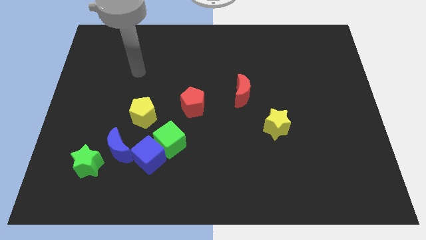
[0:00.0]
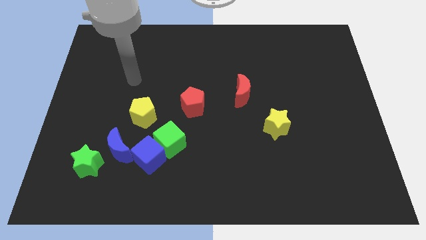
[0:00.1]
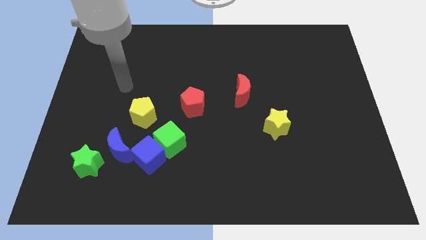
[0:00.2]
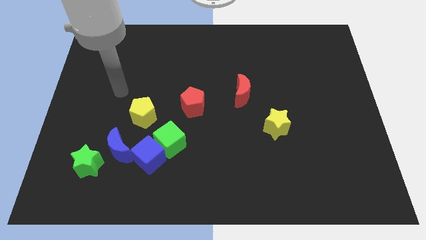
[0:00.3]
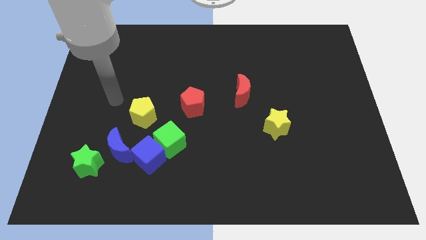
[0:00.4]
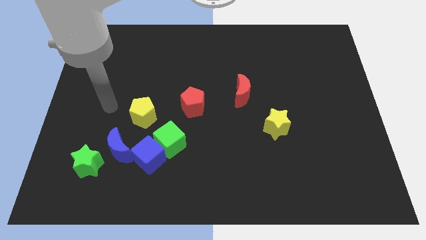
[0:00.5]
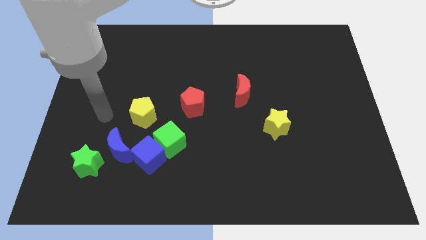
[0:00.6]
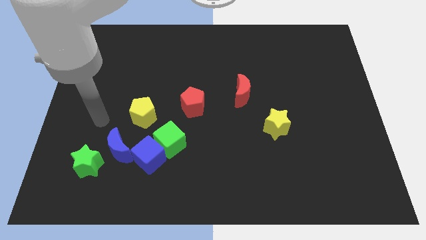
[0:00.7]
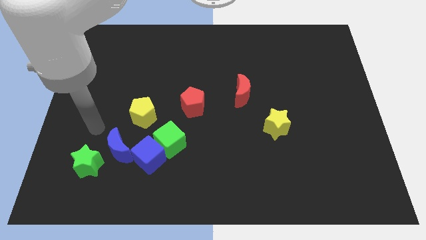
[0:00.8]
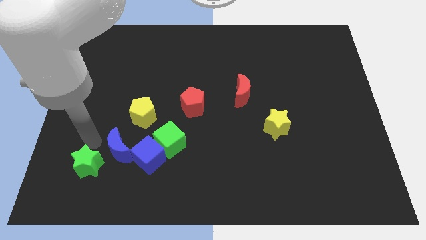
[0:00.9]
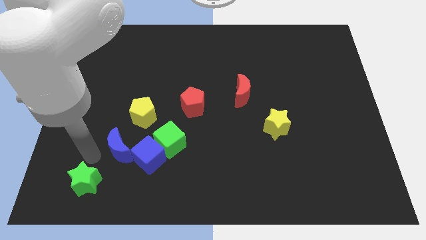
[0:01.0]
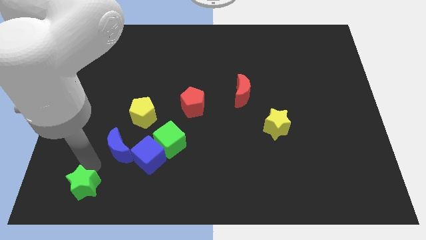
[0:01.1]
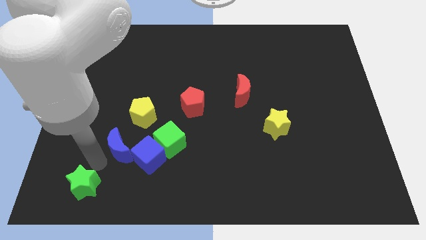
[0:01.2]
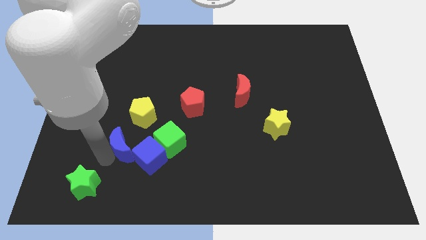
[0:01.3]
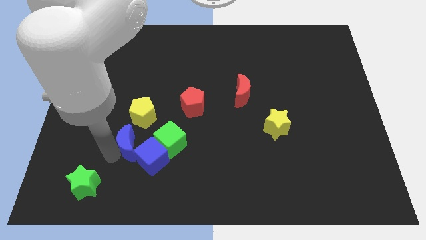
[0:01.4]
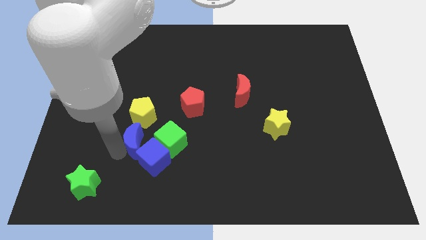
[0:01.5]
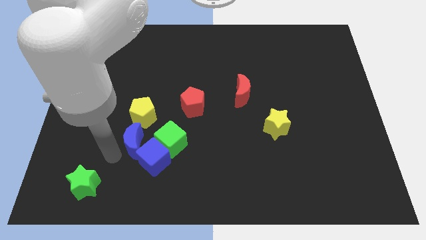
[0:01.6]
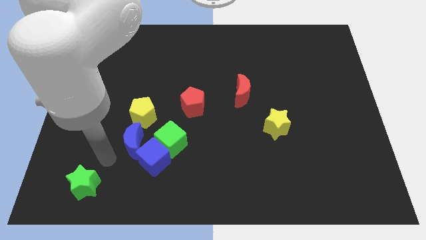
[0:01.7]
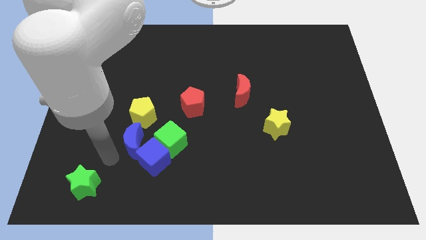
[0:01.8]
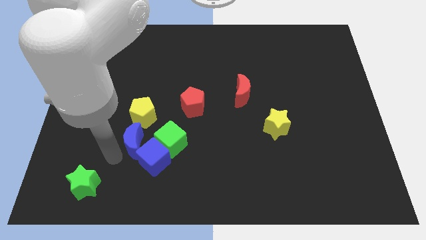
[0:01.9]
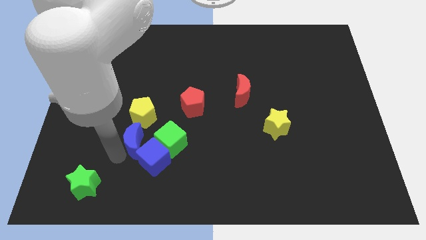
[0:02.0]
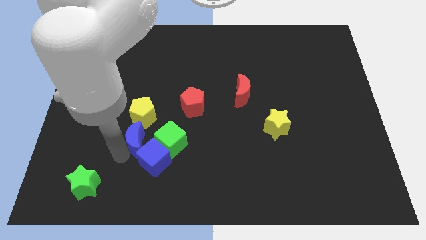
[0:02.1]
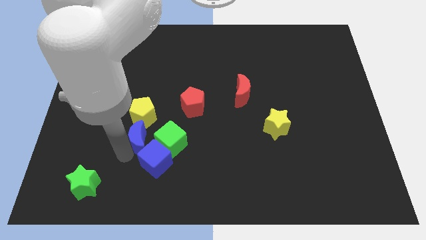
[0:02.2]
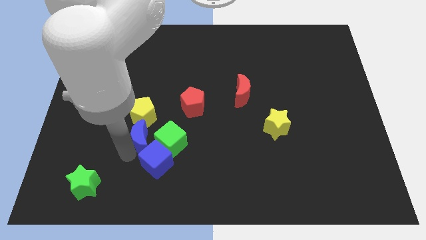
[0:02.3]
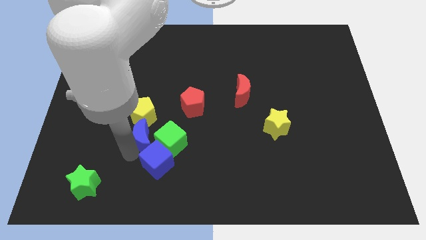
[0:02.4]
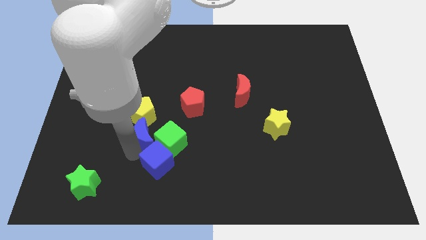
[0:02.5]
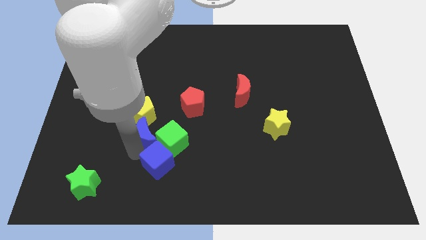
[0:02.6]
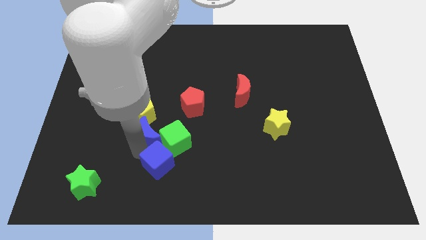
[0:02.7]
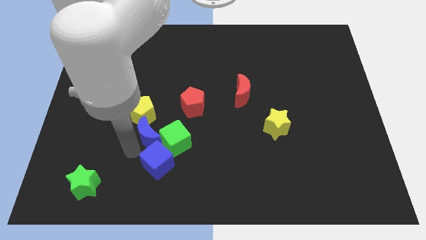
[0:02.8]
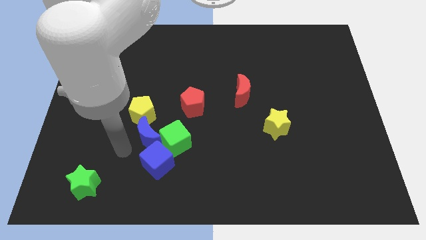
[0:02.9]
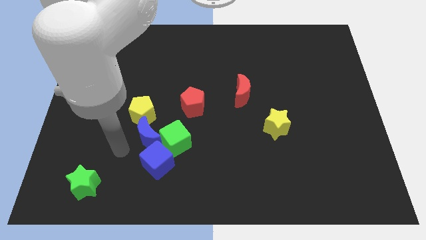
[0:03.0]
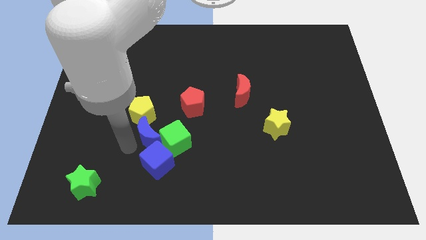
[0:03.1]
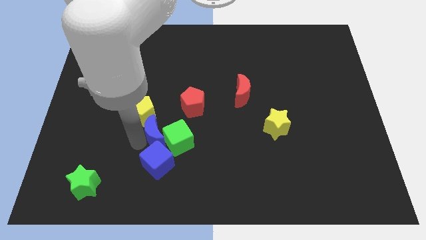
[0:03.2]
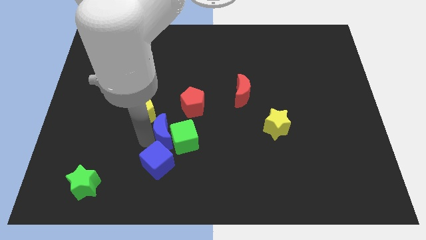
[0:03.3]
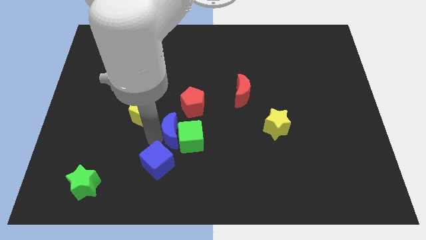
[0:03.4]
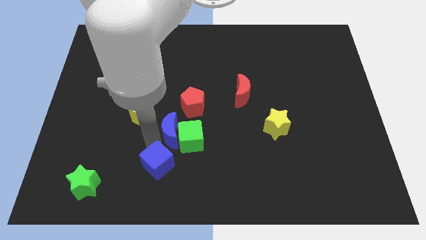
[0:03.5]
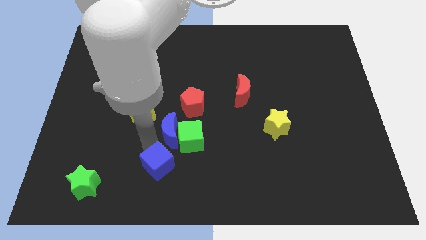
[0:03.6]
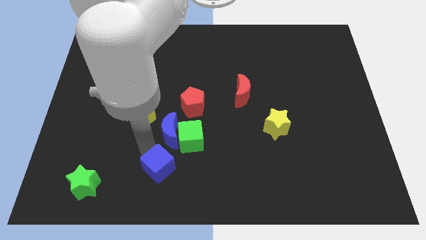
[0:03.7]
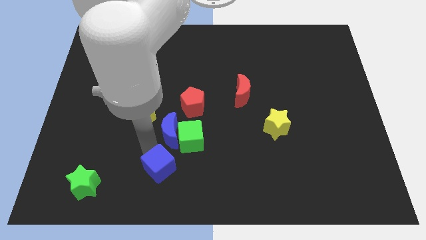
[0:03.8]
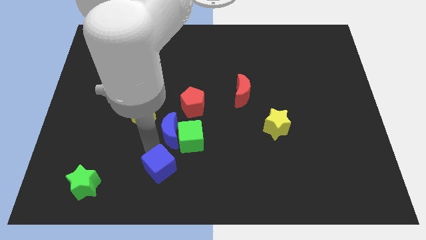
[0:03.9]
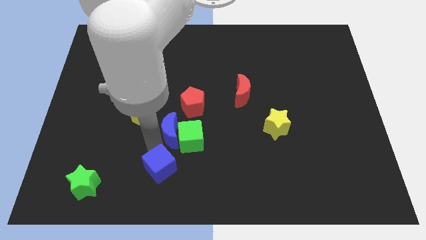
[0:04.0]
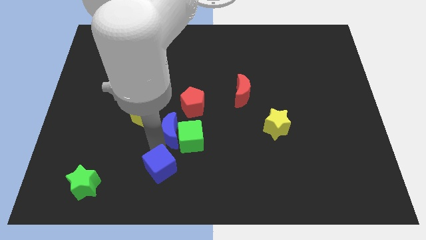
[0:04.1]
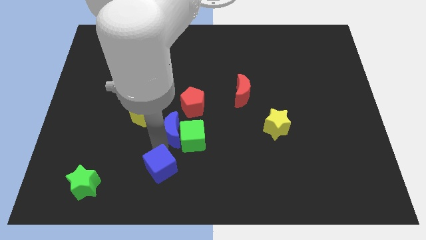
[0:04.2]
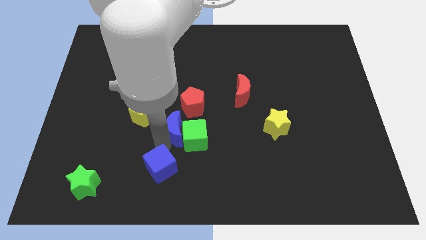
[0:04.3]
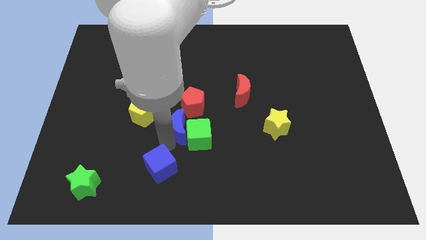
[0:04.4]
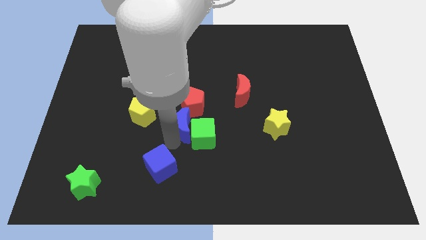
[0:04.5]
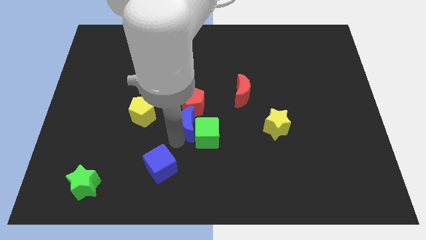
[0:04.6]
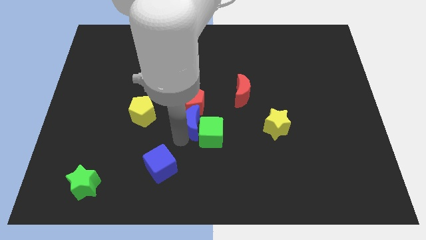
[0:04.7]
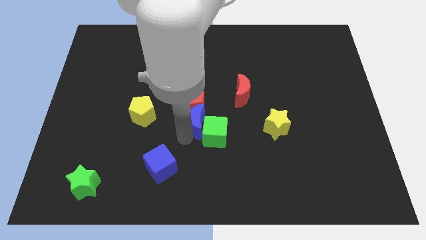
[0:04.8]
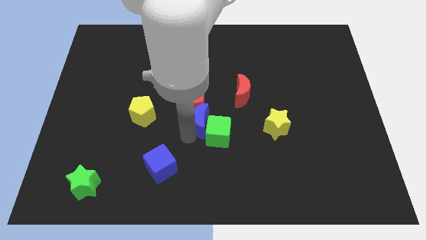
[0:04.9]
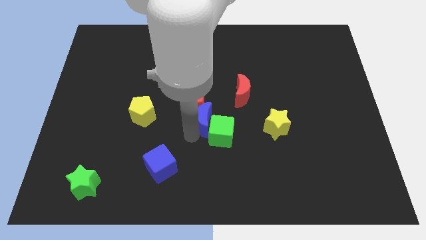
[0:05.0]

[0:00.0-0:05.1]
push the blue moon diagonally down and to the left of the red moon

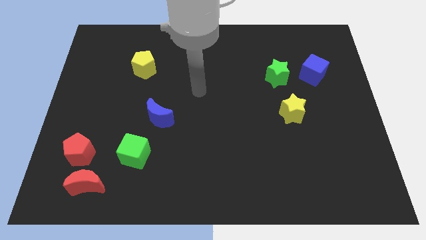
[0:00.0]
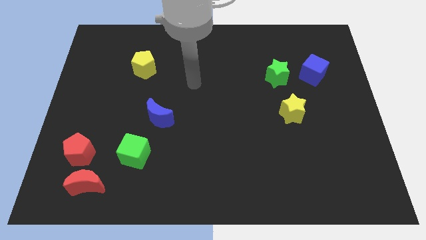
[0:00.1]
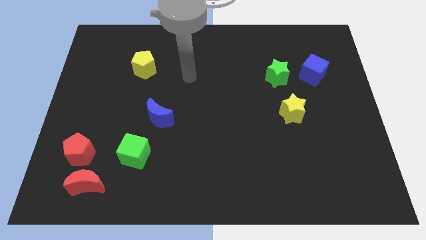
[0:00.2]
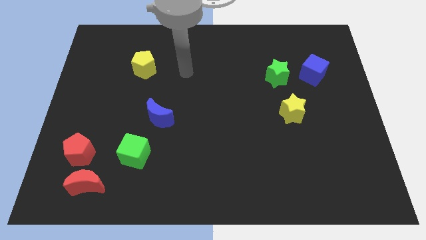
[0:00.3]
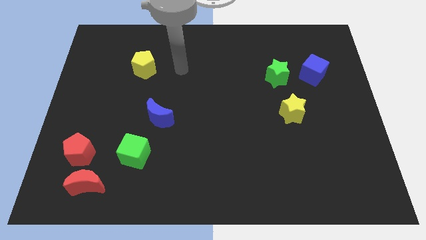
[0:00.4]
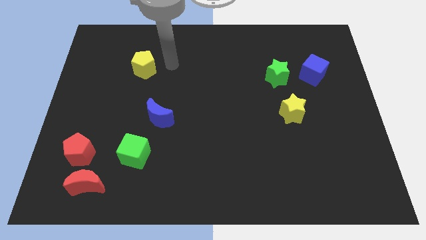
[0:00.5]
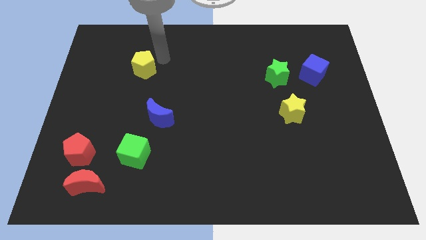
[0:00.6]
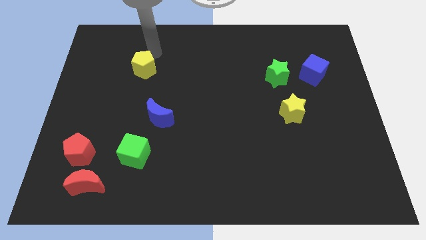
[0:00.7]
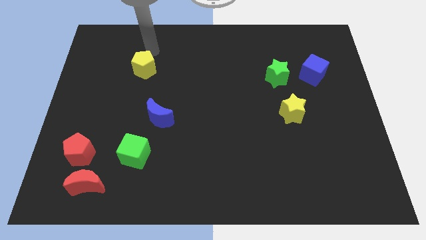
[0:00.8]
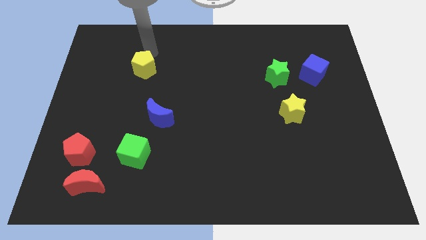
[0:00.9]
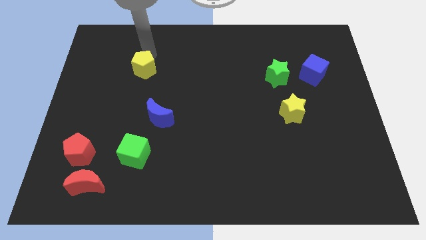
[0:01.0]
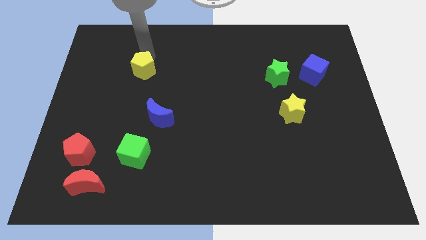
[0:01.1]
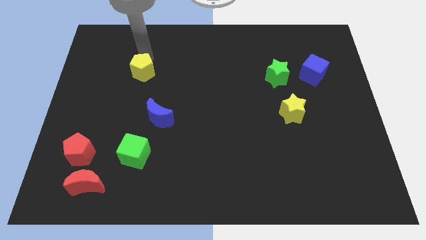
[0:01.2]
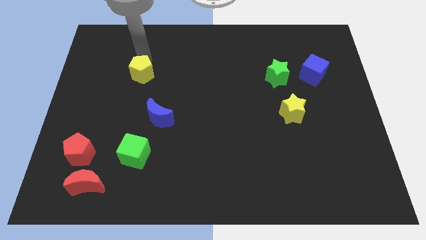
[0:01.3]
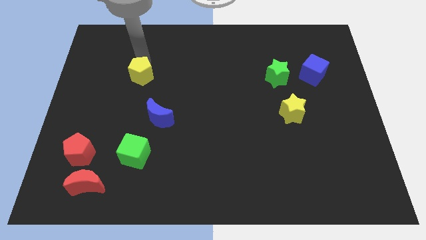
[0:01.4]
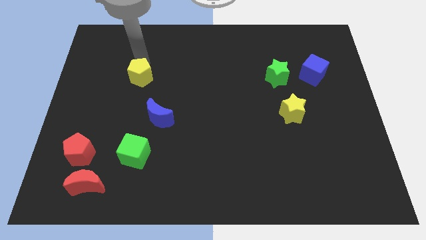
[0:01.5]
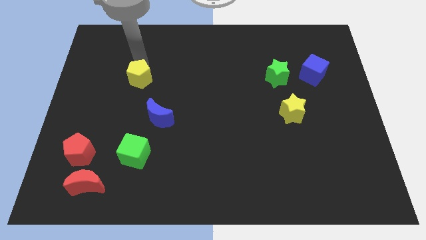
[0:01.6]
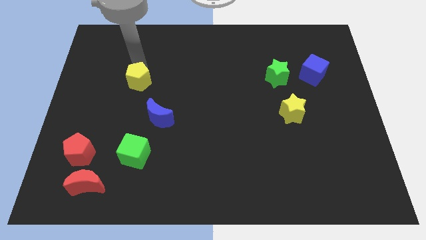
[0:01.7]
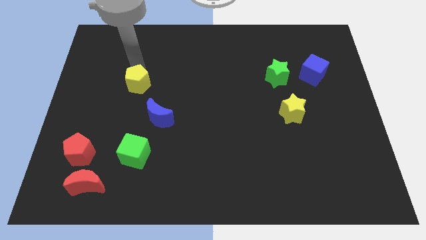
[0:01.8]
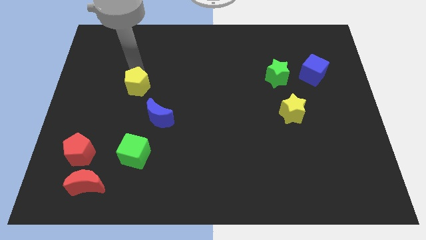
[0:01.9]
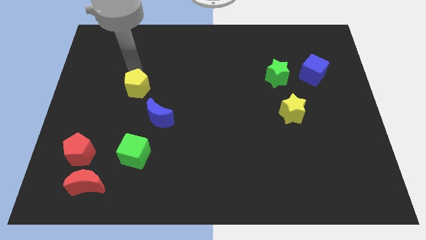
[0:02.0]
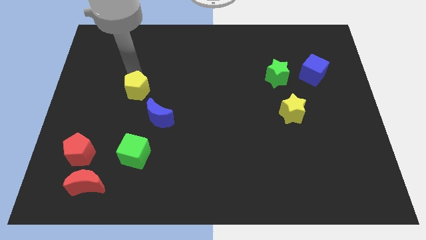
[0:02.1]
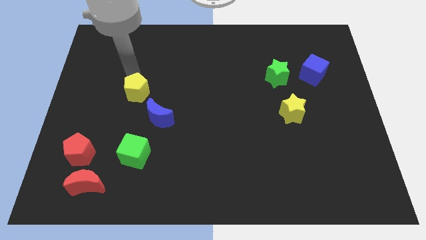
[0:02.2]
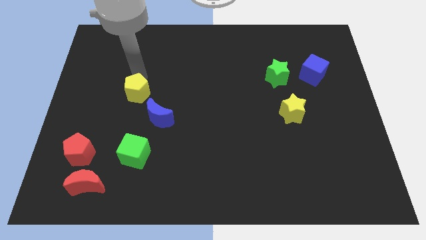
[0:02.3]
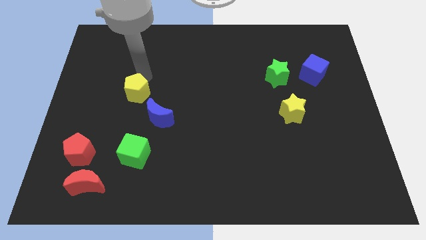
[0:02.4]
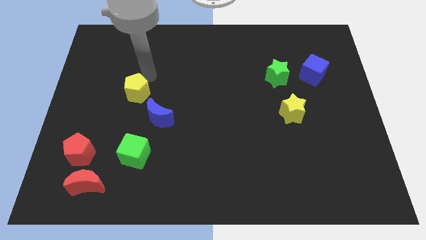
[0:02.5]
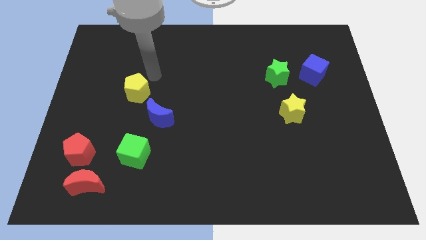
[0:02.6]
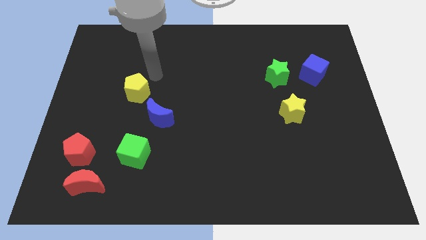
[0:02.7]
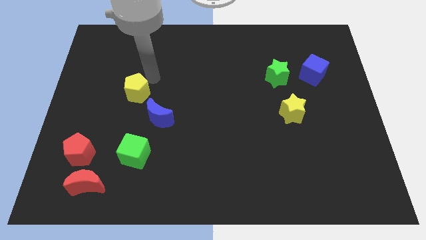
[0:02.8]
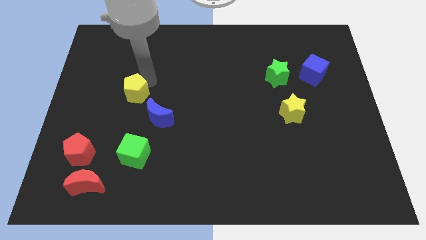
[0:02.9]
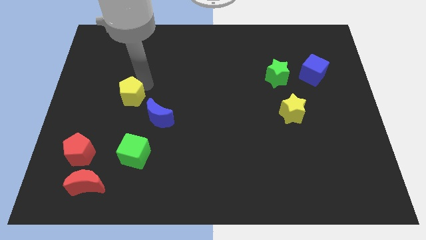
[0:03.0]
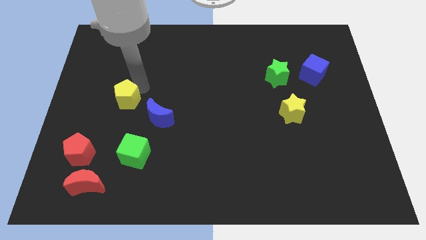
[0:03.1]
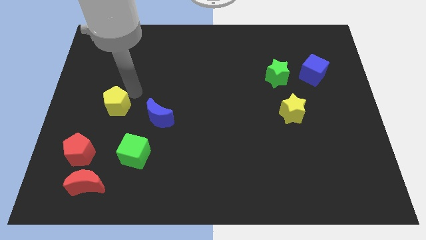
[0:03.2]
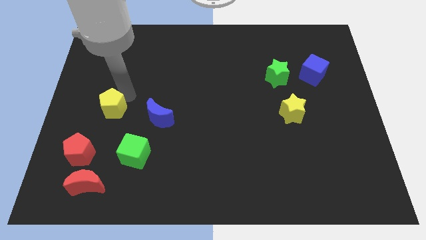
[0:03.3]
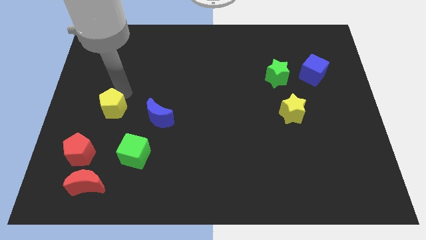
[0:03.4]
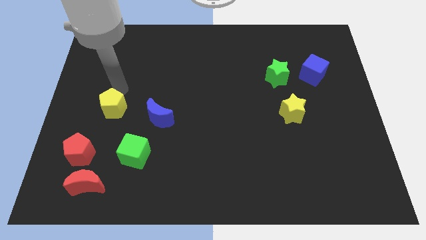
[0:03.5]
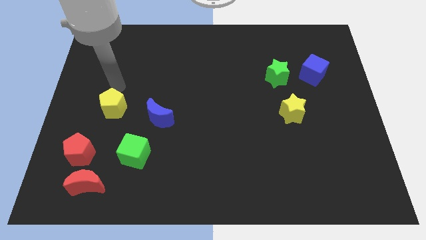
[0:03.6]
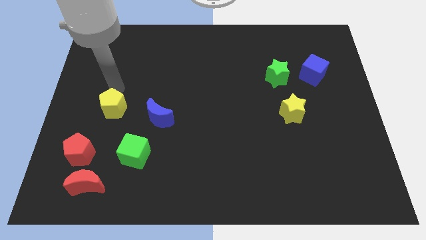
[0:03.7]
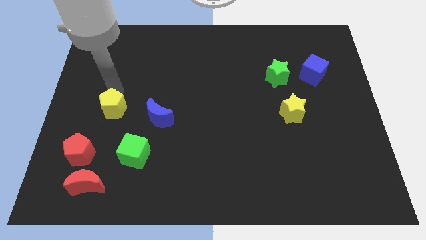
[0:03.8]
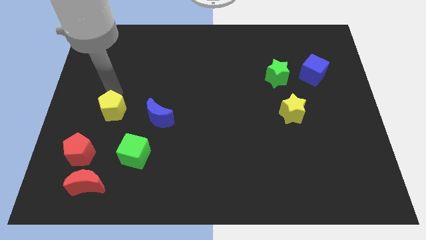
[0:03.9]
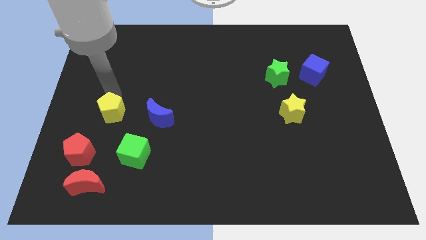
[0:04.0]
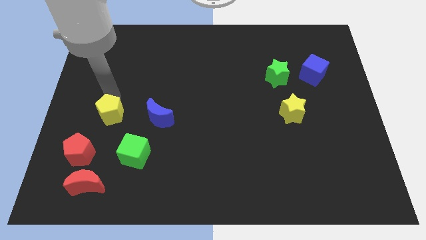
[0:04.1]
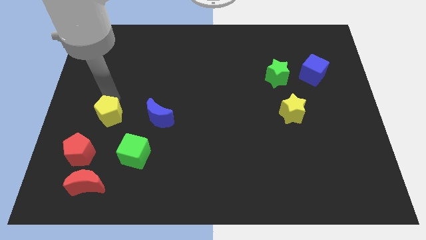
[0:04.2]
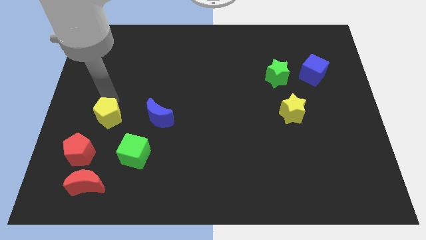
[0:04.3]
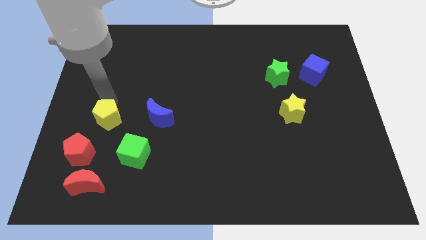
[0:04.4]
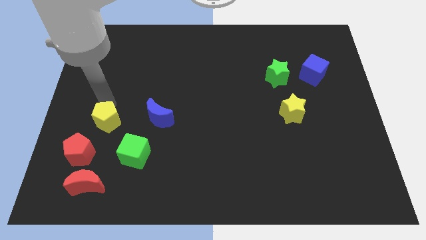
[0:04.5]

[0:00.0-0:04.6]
put the yellow pentagon to the top of the red moon
